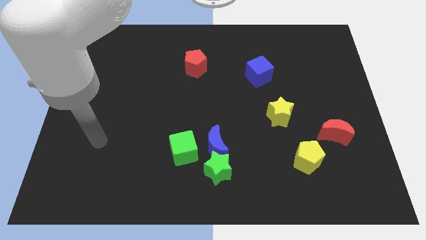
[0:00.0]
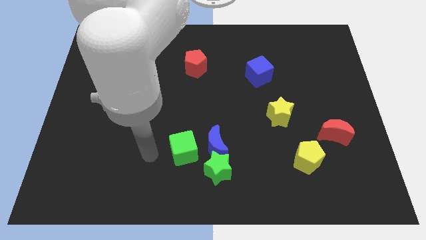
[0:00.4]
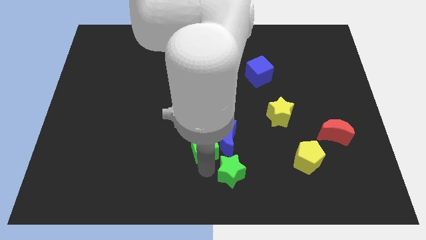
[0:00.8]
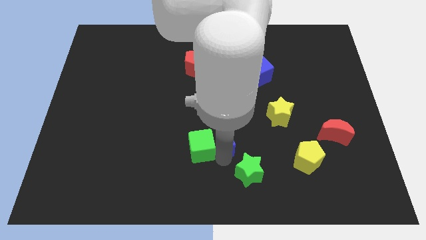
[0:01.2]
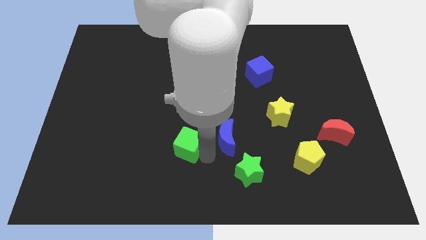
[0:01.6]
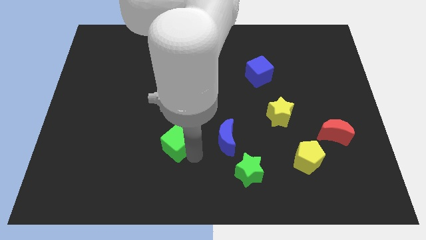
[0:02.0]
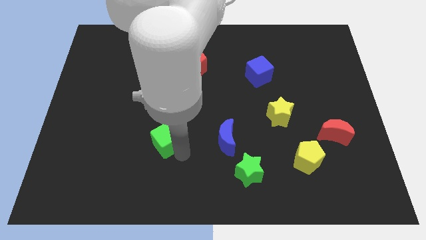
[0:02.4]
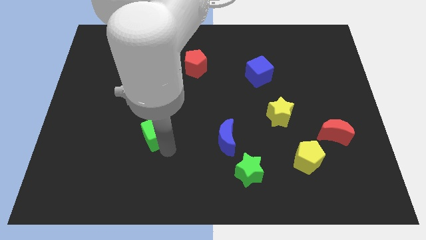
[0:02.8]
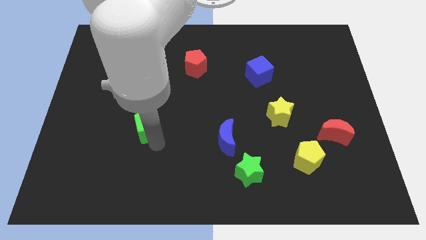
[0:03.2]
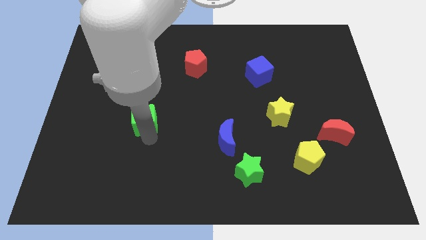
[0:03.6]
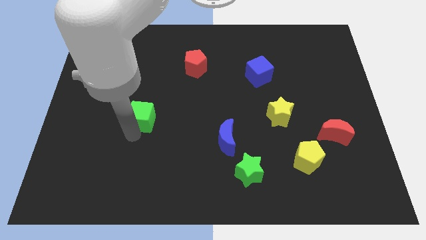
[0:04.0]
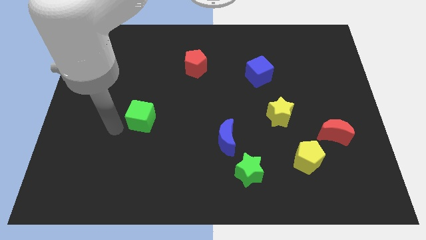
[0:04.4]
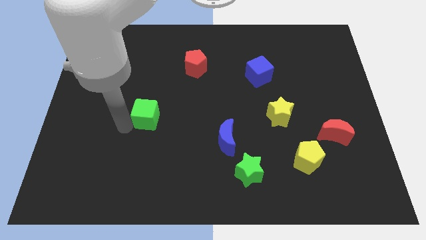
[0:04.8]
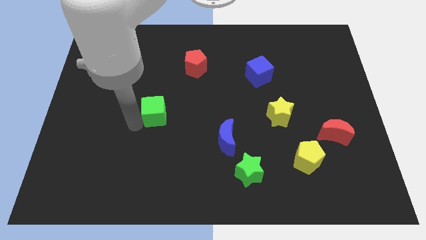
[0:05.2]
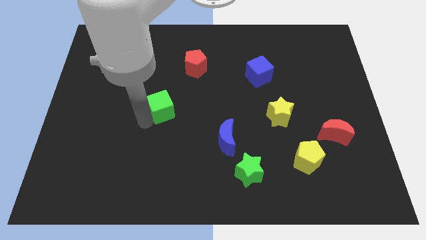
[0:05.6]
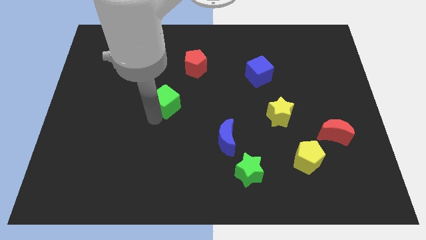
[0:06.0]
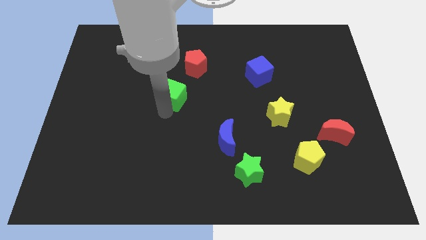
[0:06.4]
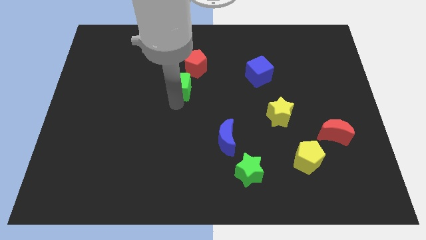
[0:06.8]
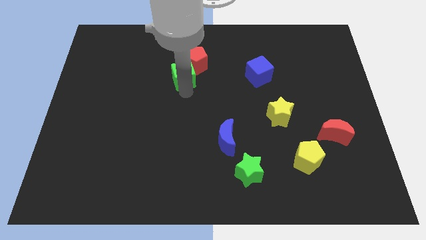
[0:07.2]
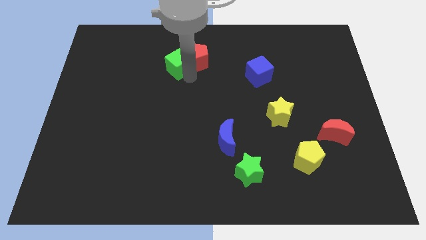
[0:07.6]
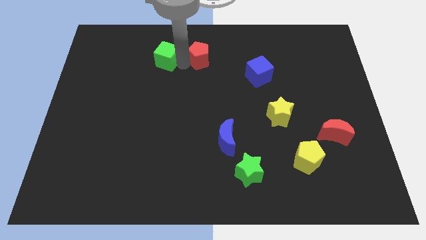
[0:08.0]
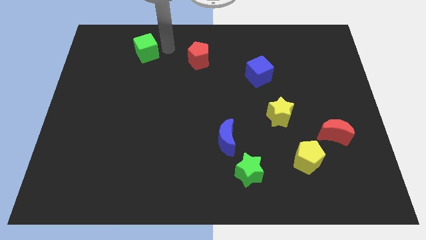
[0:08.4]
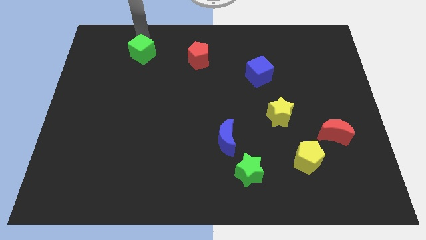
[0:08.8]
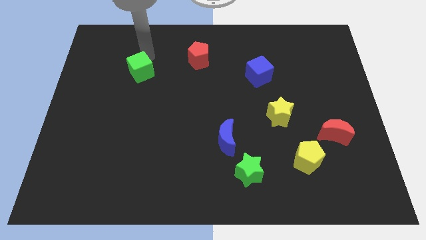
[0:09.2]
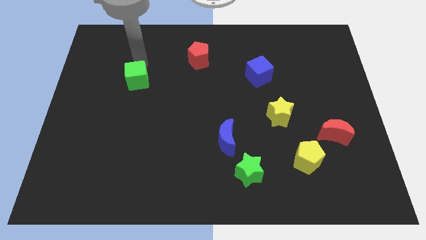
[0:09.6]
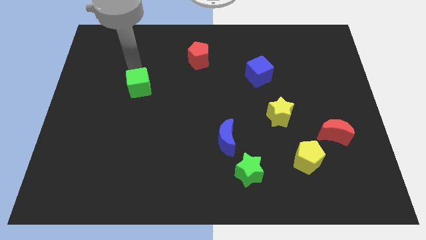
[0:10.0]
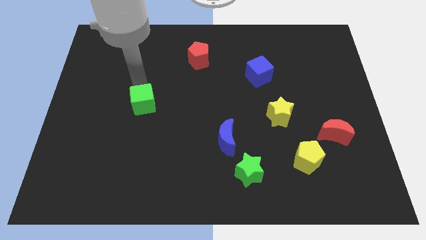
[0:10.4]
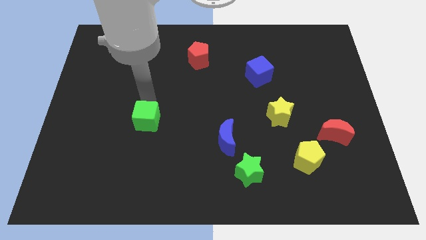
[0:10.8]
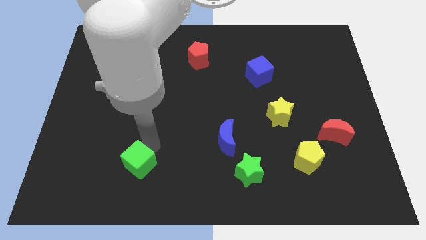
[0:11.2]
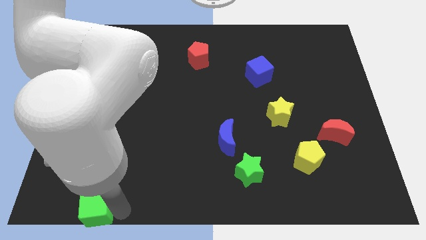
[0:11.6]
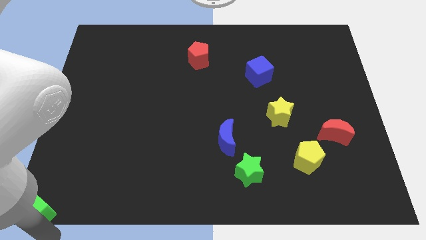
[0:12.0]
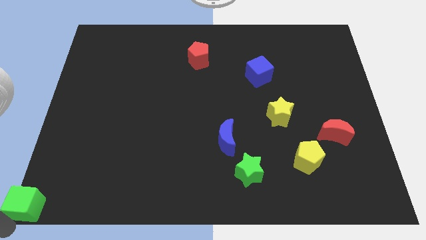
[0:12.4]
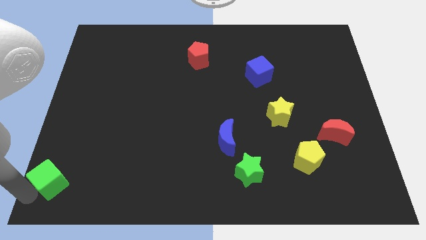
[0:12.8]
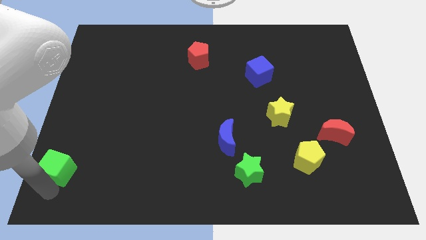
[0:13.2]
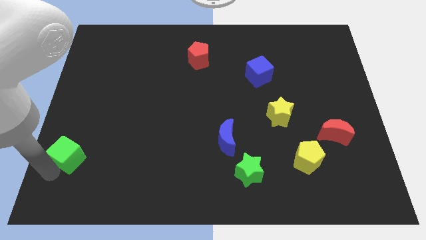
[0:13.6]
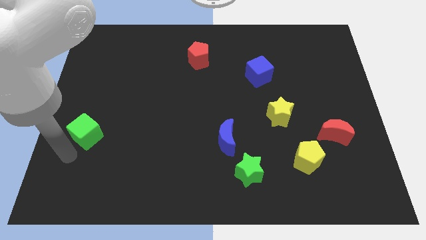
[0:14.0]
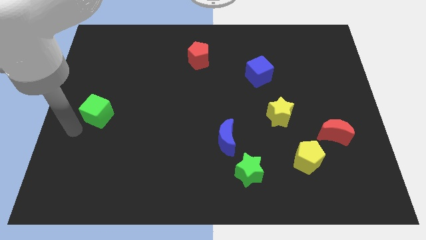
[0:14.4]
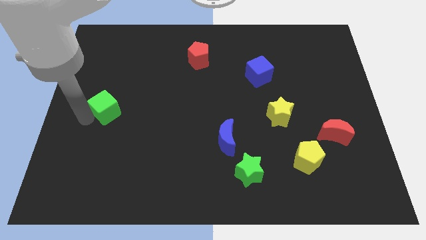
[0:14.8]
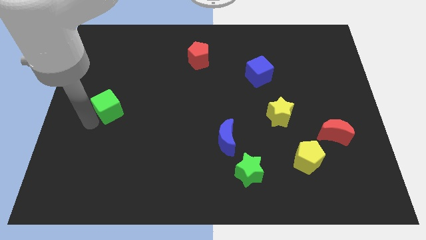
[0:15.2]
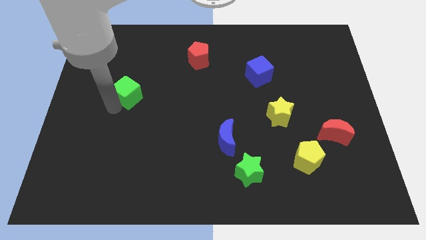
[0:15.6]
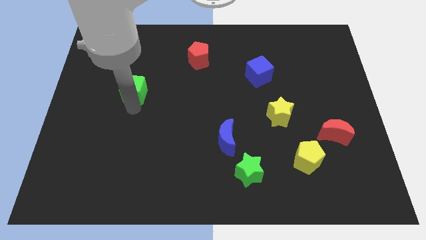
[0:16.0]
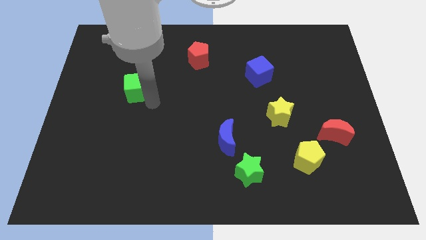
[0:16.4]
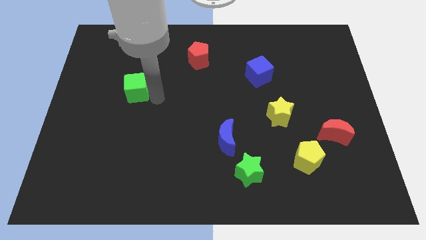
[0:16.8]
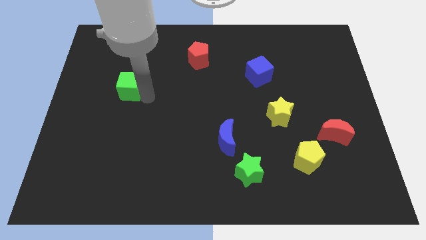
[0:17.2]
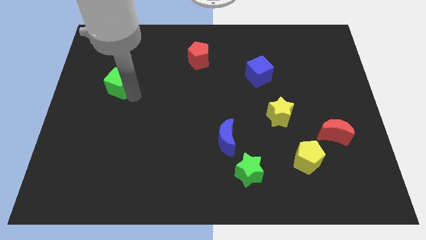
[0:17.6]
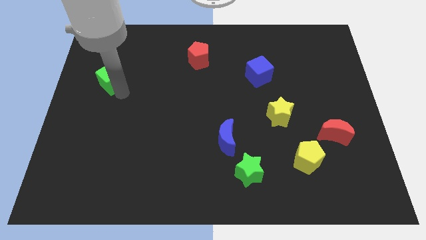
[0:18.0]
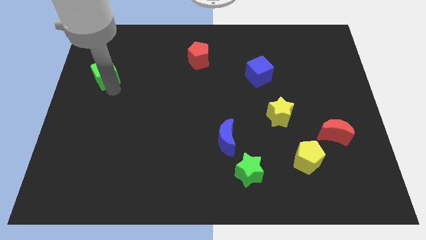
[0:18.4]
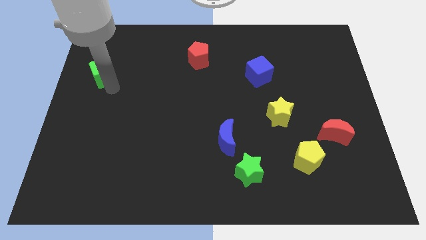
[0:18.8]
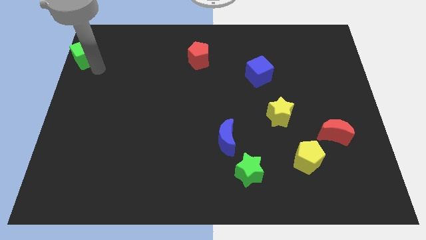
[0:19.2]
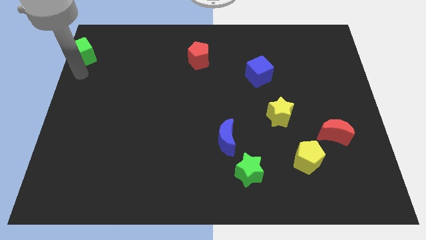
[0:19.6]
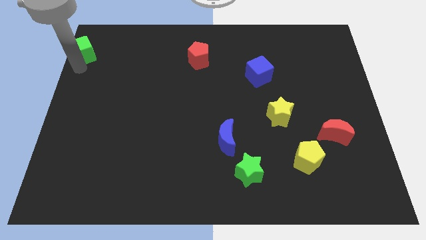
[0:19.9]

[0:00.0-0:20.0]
push the green cube to the top left

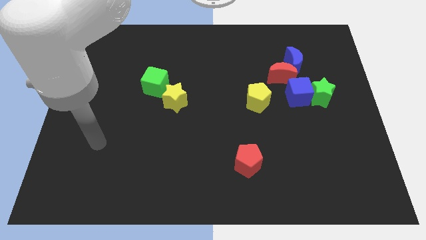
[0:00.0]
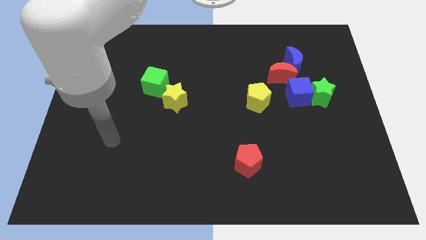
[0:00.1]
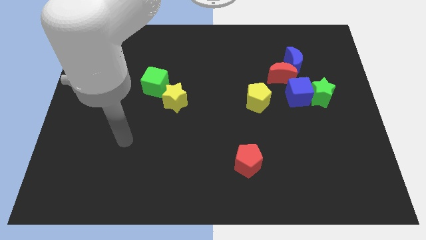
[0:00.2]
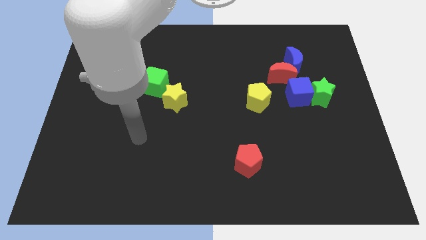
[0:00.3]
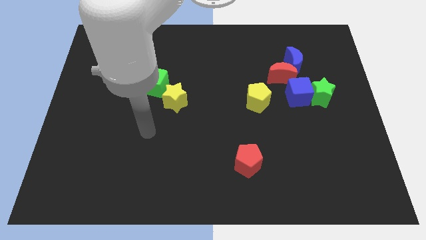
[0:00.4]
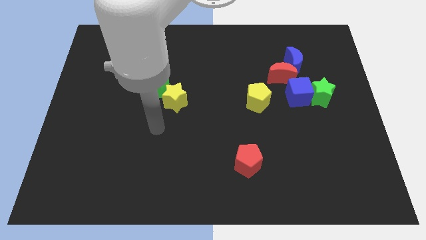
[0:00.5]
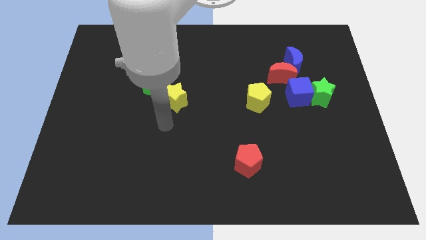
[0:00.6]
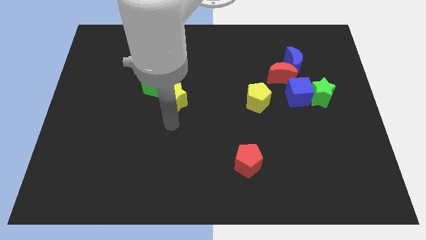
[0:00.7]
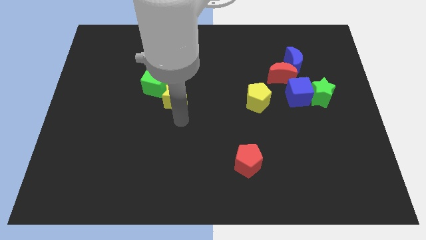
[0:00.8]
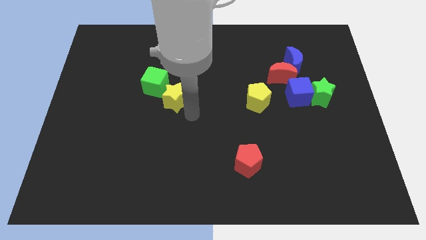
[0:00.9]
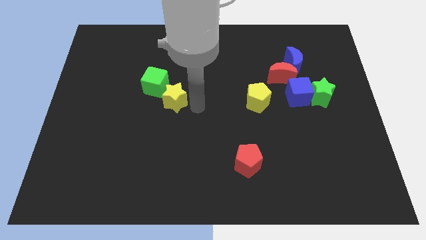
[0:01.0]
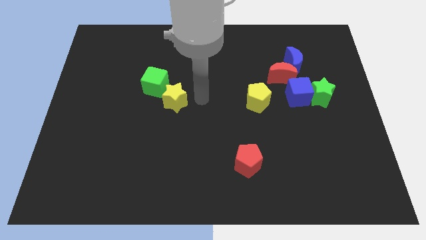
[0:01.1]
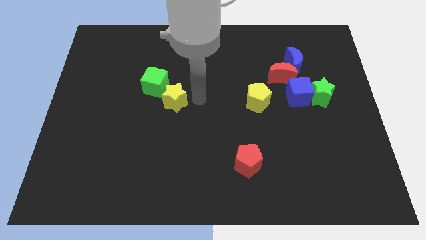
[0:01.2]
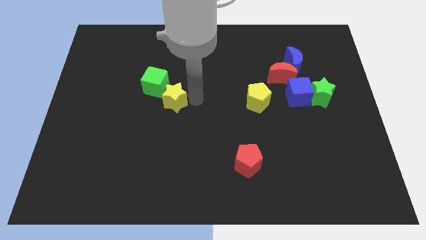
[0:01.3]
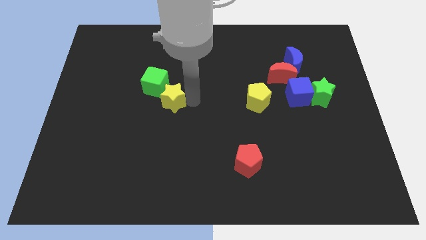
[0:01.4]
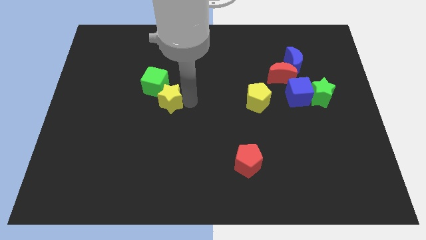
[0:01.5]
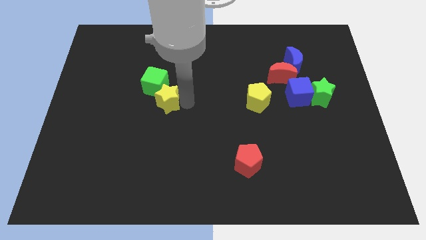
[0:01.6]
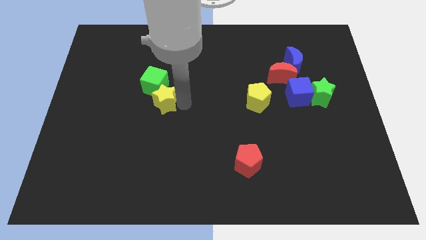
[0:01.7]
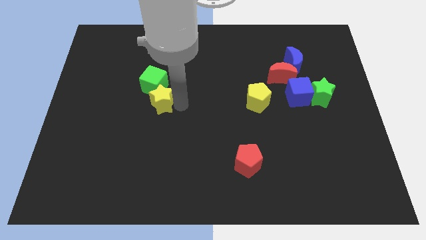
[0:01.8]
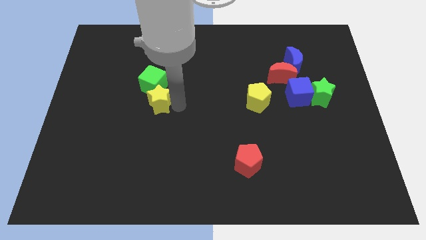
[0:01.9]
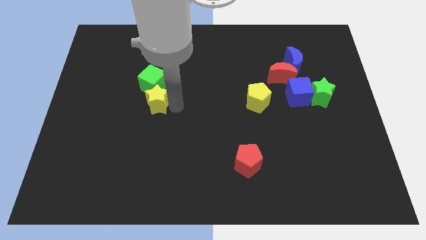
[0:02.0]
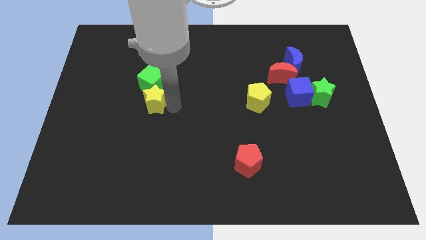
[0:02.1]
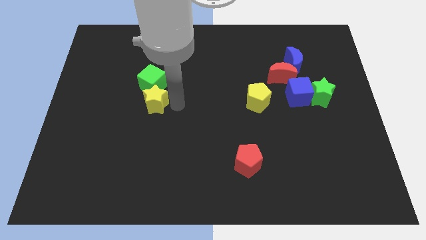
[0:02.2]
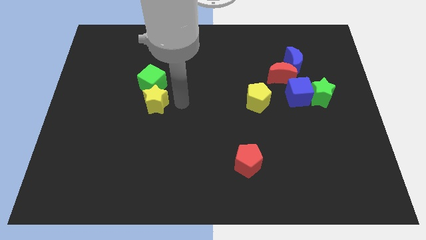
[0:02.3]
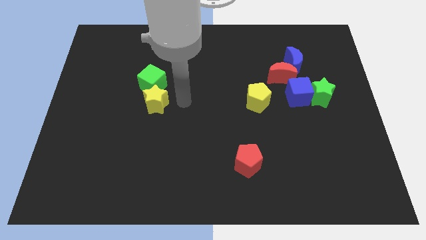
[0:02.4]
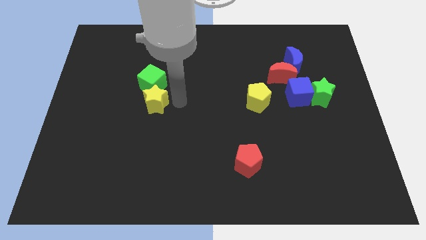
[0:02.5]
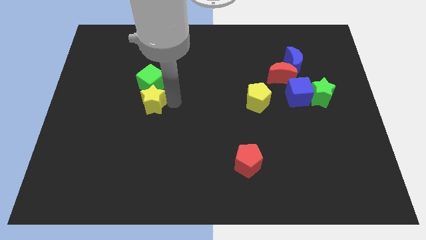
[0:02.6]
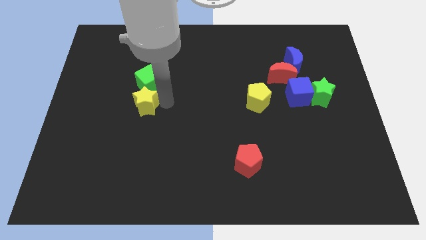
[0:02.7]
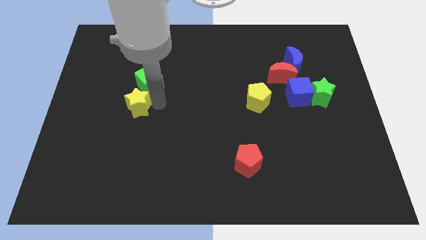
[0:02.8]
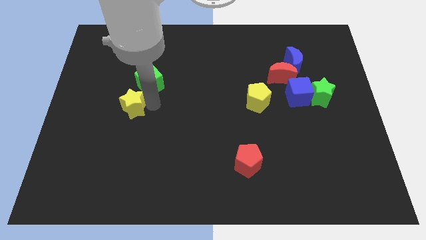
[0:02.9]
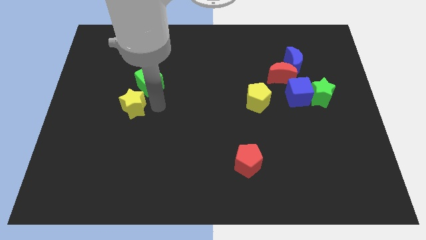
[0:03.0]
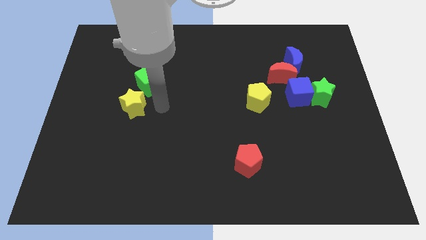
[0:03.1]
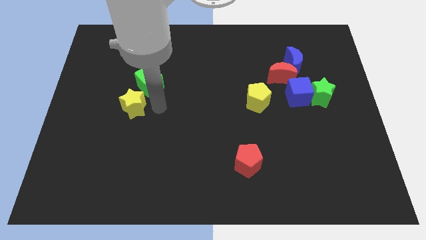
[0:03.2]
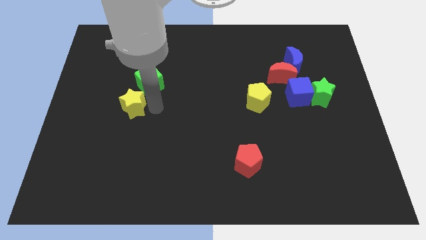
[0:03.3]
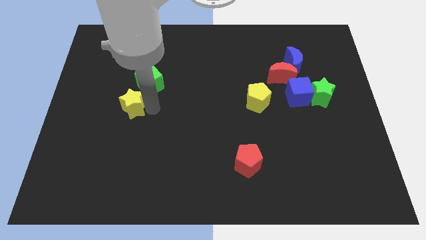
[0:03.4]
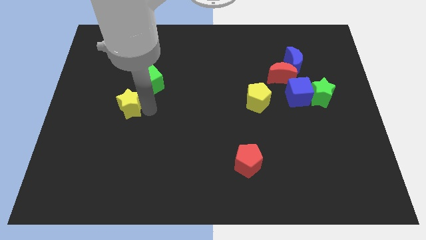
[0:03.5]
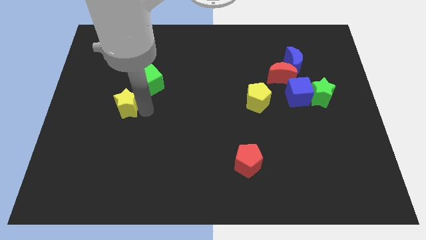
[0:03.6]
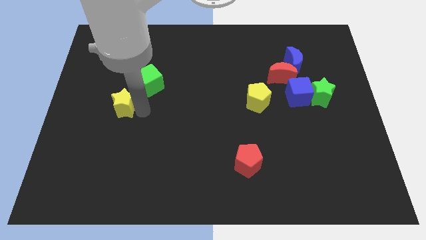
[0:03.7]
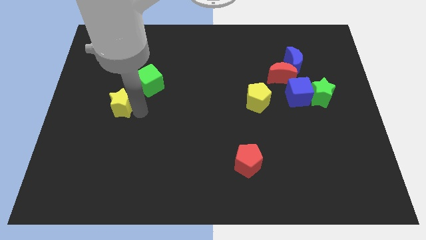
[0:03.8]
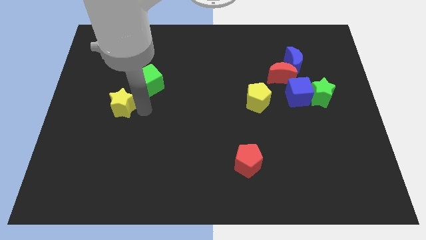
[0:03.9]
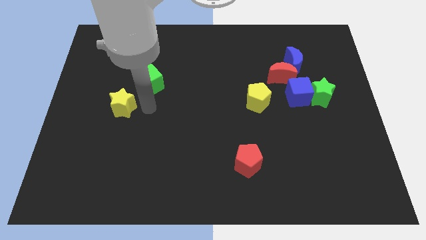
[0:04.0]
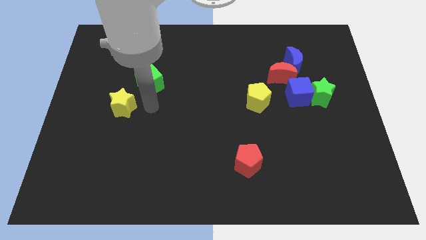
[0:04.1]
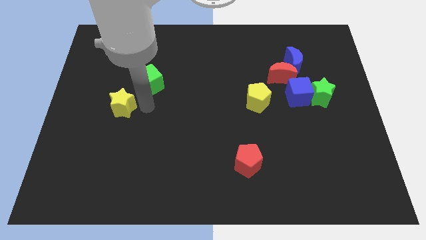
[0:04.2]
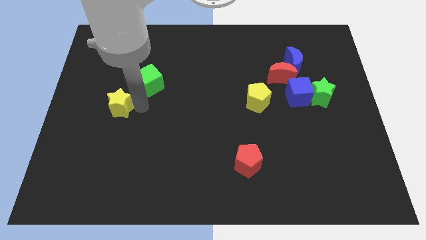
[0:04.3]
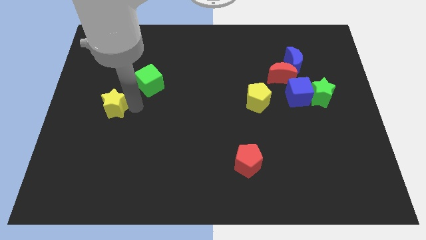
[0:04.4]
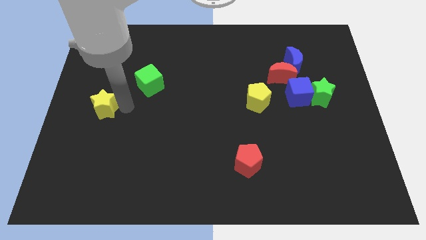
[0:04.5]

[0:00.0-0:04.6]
move the yellow star to the center left
